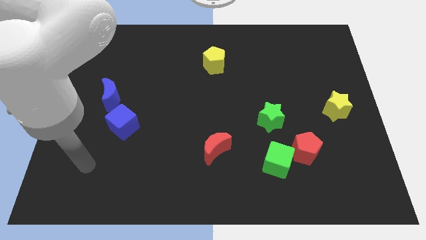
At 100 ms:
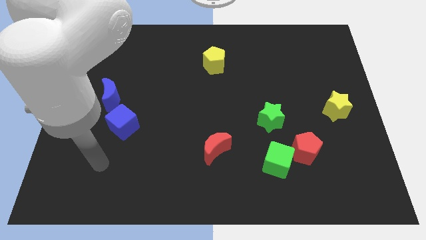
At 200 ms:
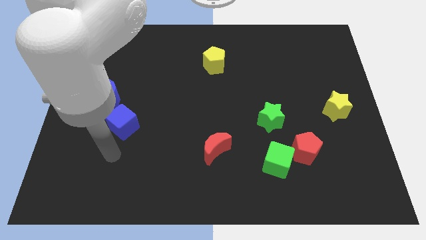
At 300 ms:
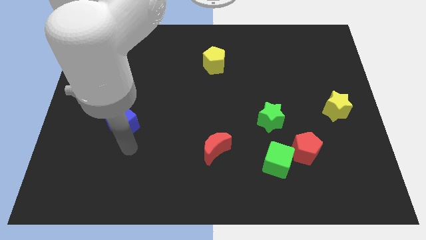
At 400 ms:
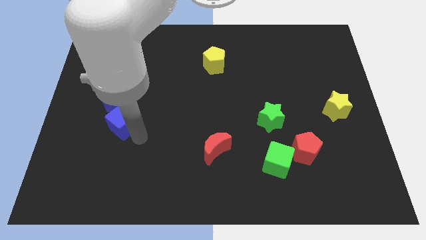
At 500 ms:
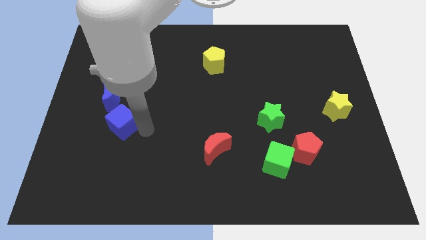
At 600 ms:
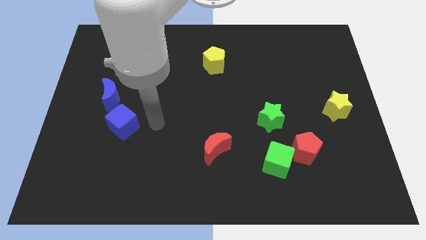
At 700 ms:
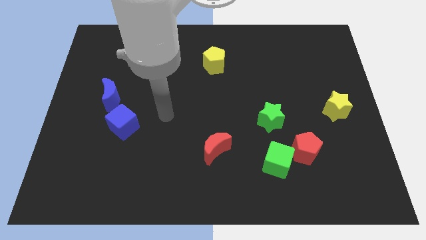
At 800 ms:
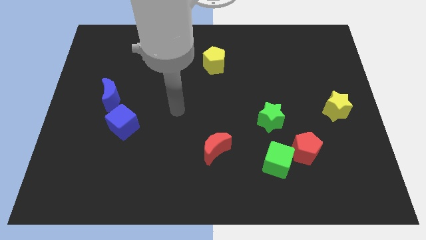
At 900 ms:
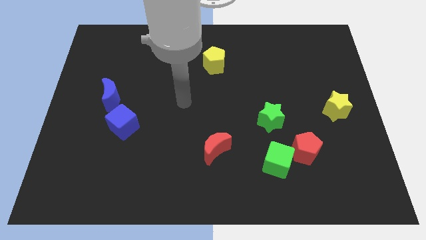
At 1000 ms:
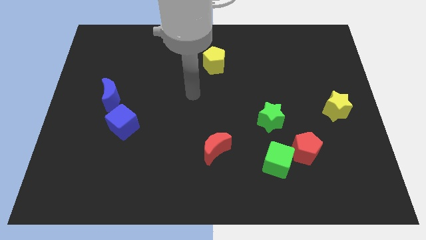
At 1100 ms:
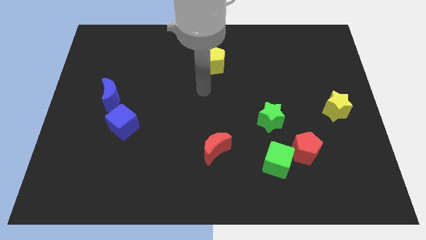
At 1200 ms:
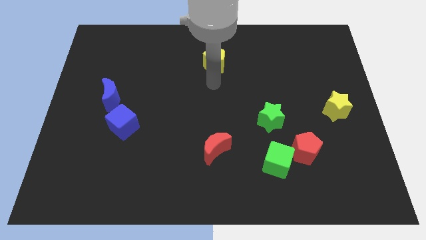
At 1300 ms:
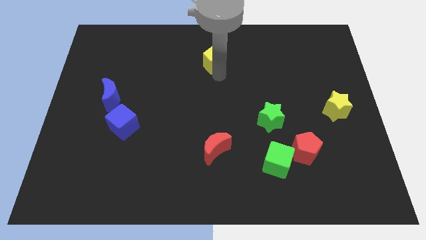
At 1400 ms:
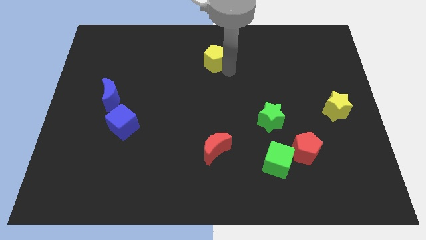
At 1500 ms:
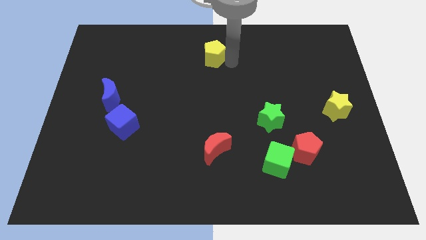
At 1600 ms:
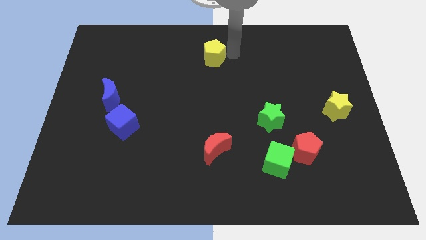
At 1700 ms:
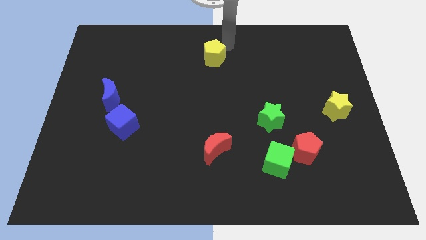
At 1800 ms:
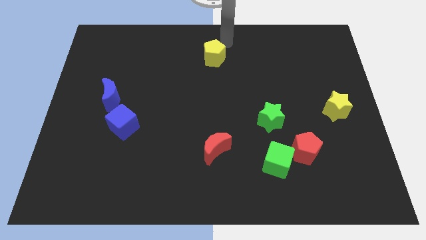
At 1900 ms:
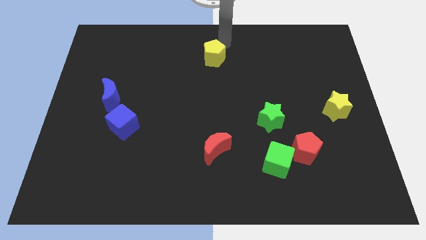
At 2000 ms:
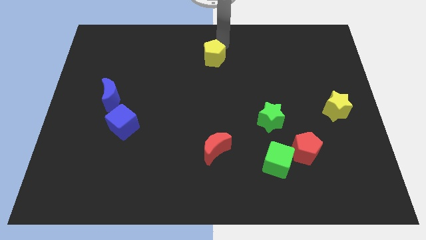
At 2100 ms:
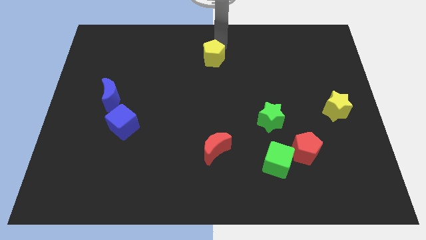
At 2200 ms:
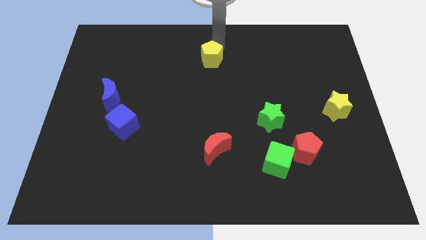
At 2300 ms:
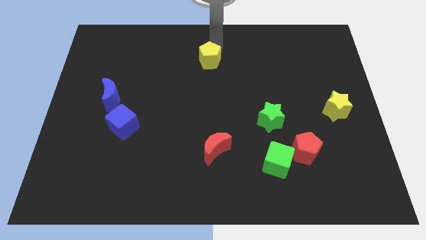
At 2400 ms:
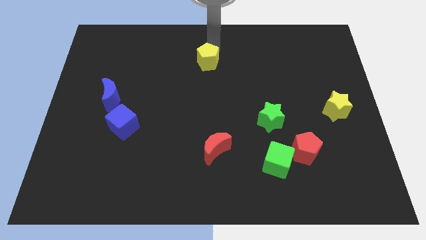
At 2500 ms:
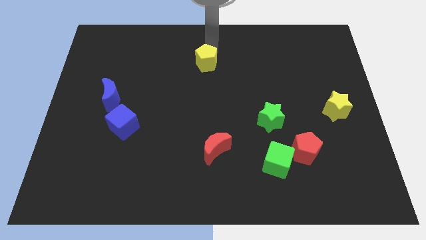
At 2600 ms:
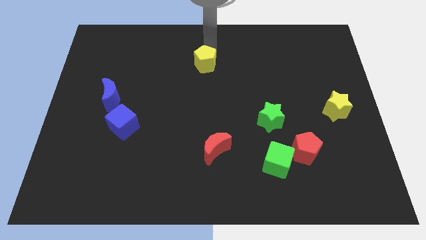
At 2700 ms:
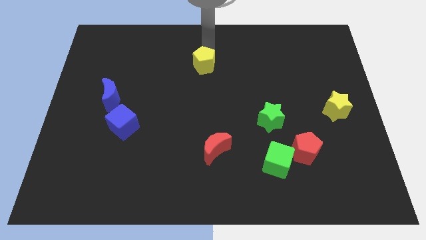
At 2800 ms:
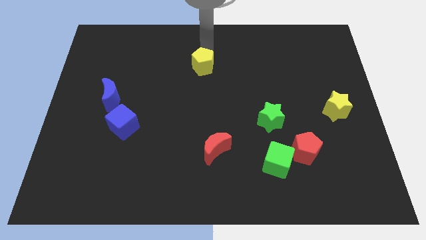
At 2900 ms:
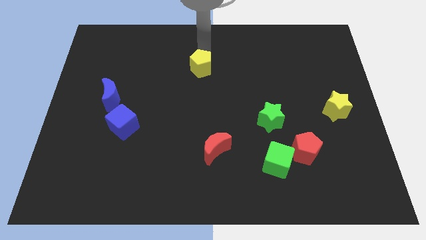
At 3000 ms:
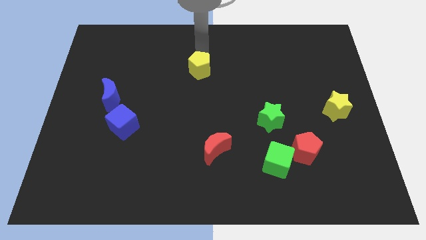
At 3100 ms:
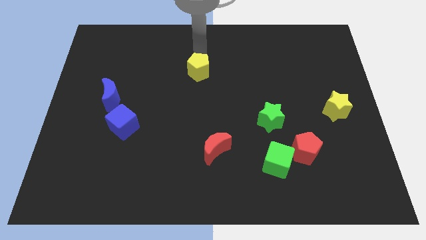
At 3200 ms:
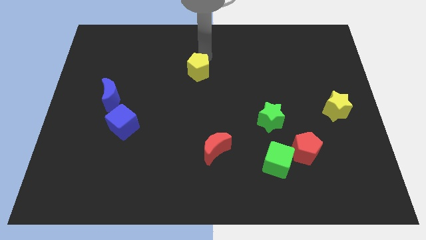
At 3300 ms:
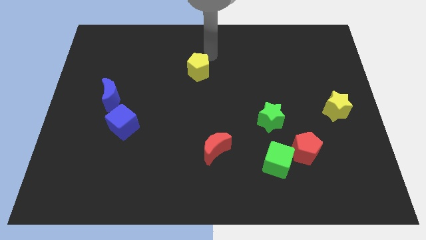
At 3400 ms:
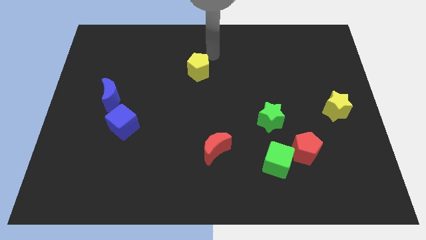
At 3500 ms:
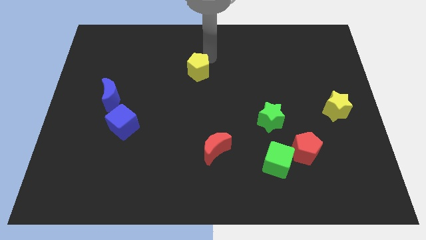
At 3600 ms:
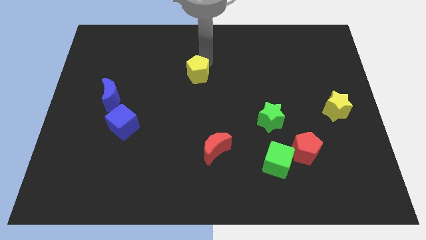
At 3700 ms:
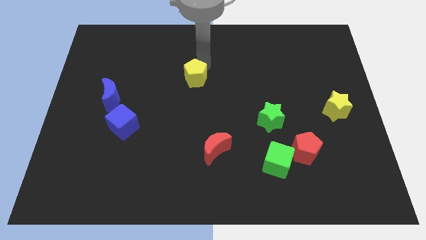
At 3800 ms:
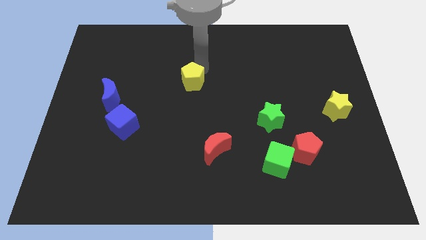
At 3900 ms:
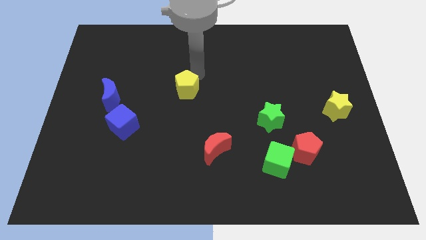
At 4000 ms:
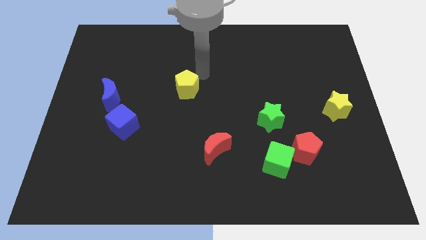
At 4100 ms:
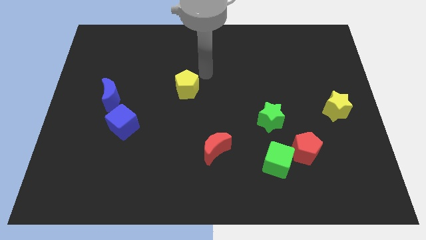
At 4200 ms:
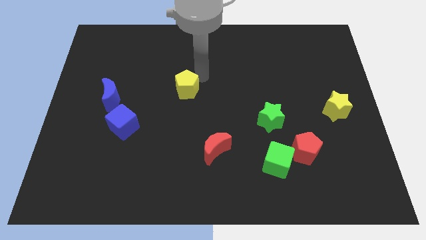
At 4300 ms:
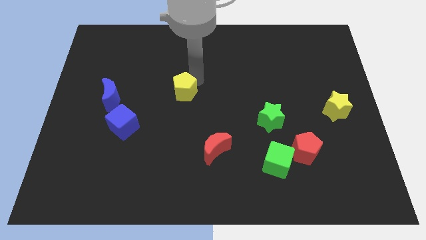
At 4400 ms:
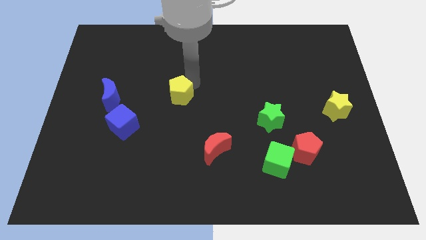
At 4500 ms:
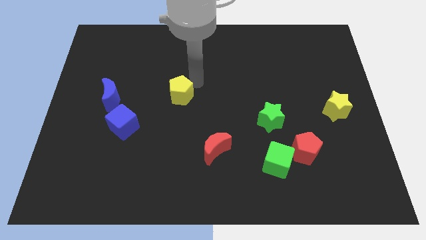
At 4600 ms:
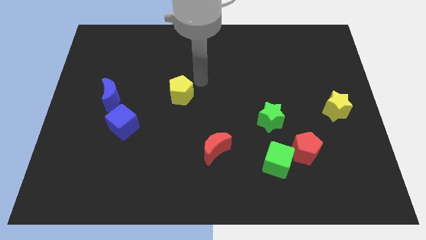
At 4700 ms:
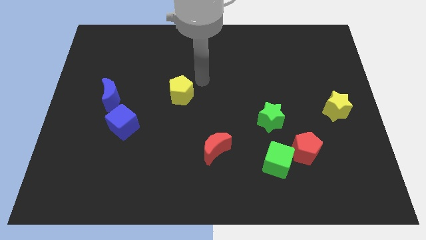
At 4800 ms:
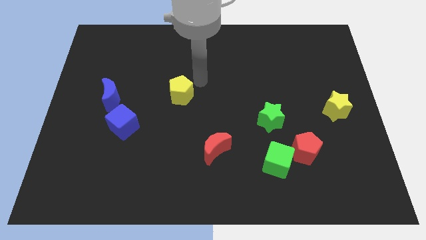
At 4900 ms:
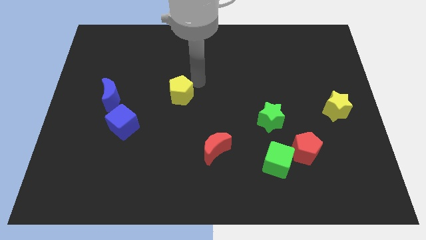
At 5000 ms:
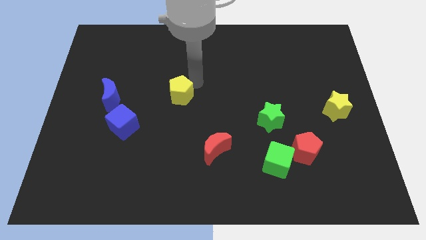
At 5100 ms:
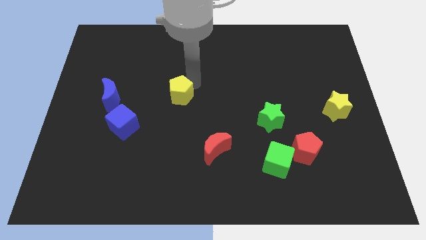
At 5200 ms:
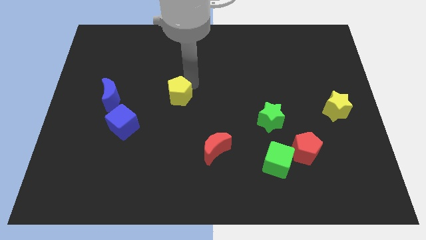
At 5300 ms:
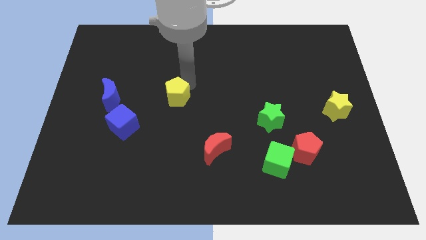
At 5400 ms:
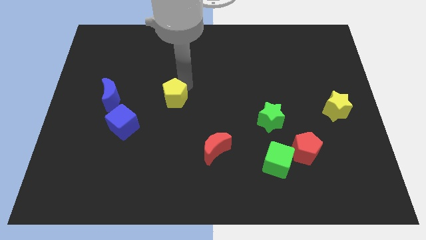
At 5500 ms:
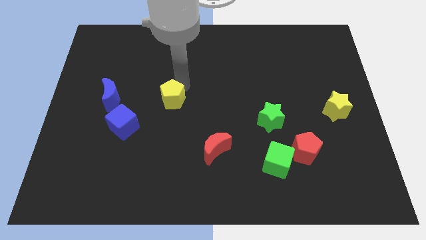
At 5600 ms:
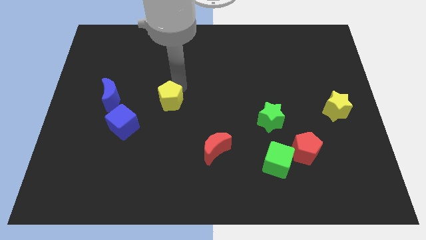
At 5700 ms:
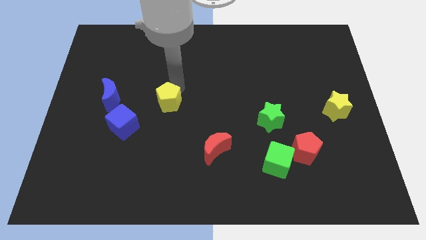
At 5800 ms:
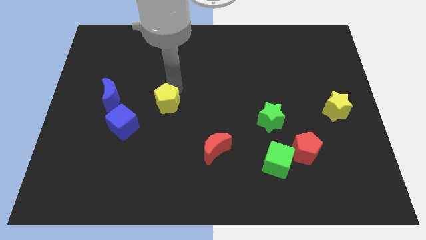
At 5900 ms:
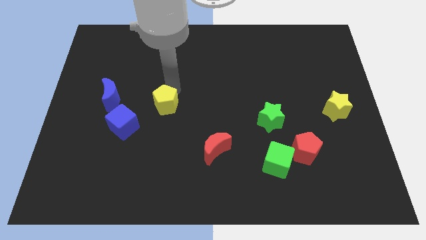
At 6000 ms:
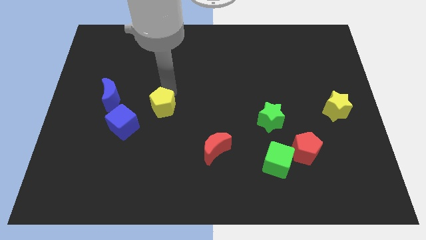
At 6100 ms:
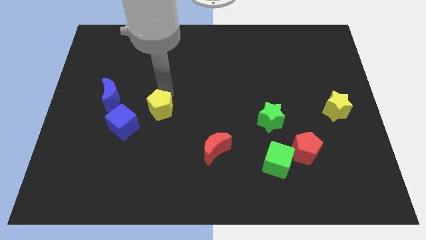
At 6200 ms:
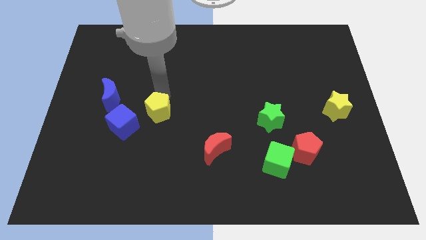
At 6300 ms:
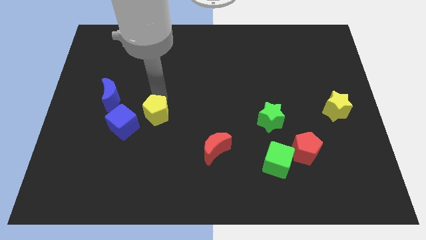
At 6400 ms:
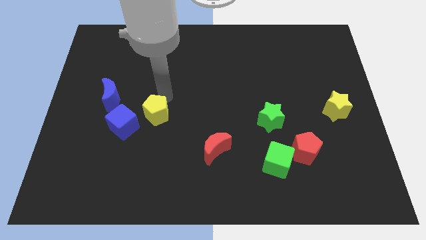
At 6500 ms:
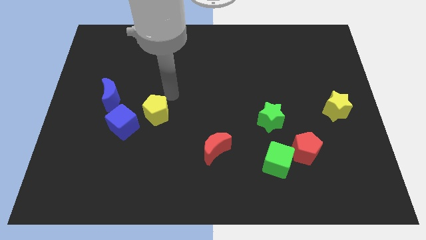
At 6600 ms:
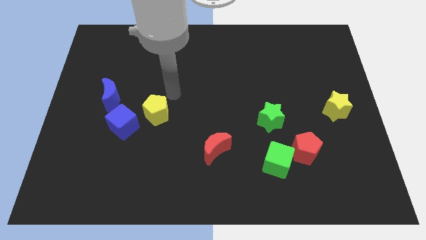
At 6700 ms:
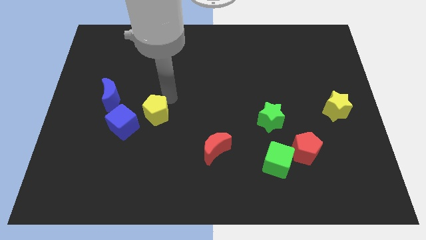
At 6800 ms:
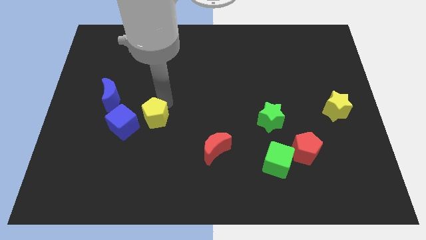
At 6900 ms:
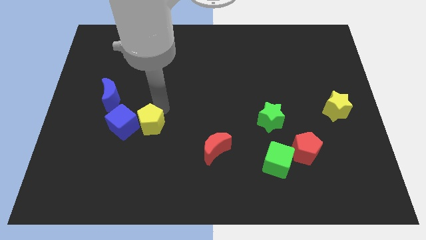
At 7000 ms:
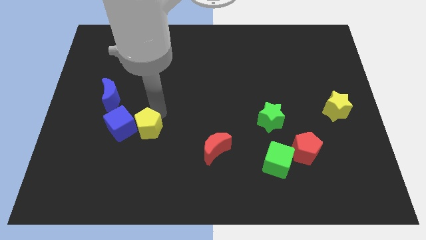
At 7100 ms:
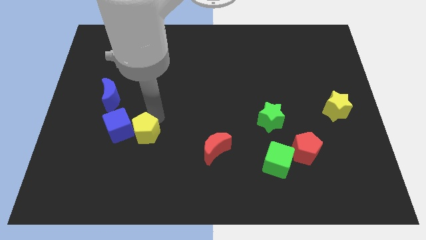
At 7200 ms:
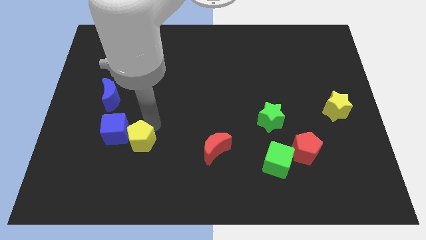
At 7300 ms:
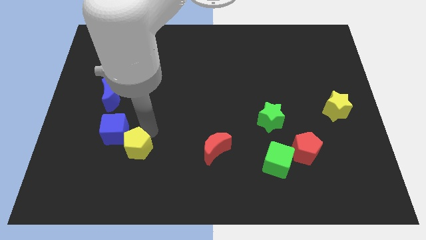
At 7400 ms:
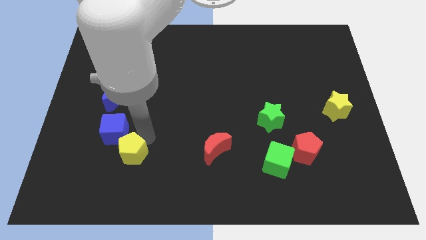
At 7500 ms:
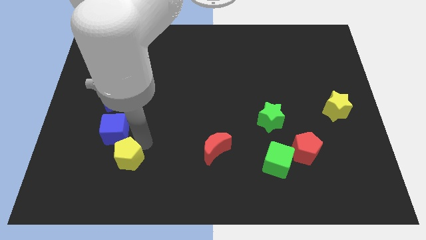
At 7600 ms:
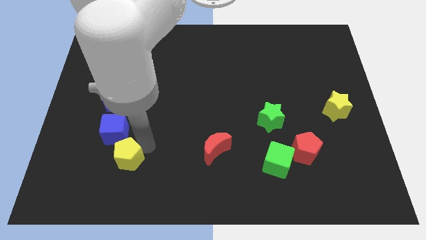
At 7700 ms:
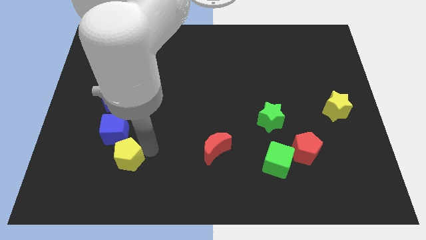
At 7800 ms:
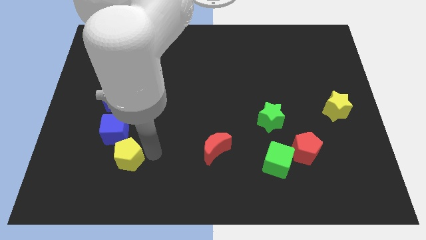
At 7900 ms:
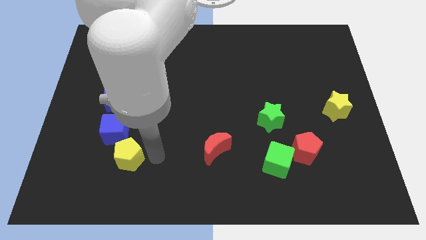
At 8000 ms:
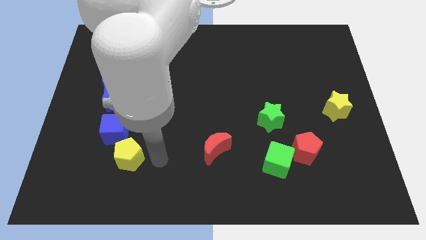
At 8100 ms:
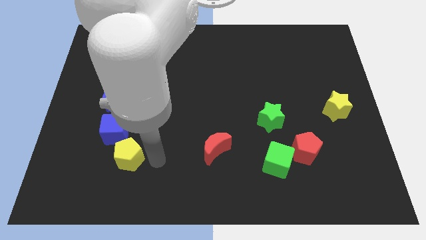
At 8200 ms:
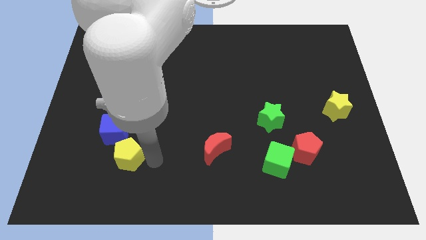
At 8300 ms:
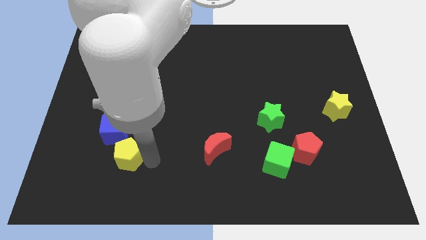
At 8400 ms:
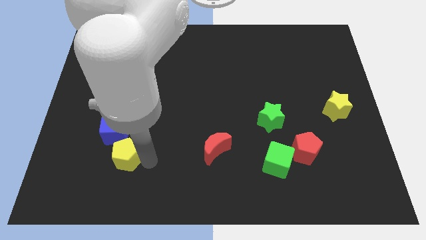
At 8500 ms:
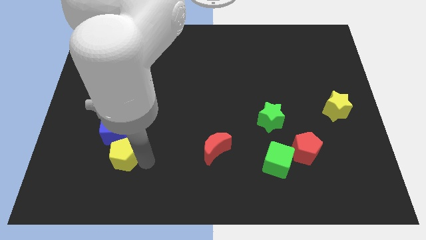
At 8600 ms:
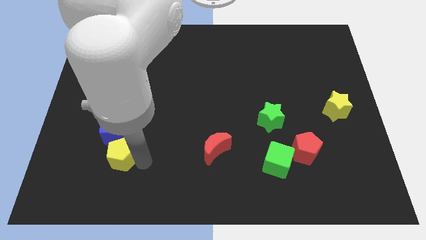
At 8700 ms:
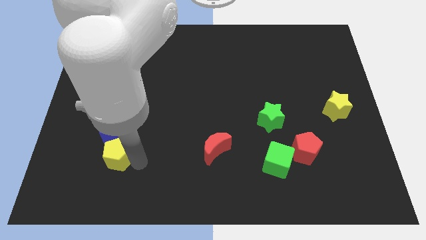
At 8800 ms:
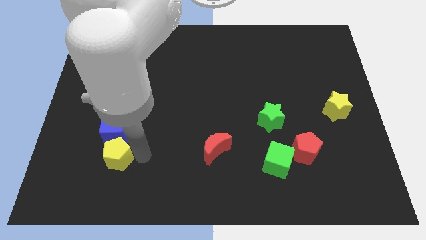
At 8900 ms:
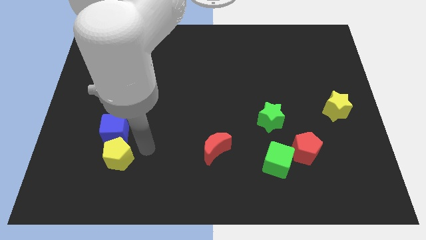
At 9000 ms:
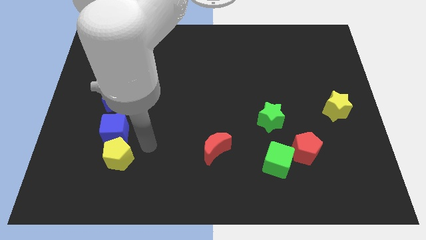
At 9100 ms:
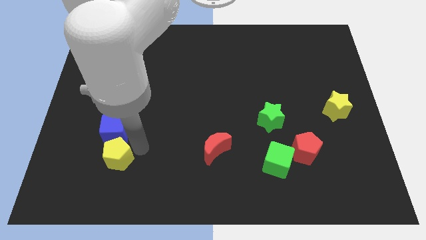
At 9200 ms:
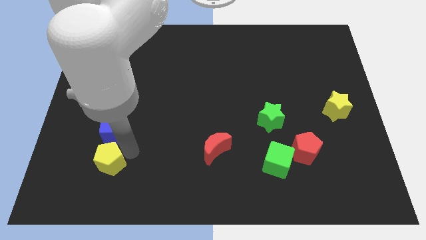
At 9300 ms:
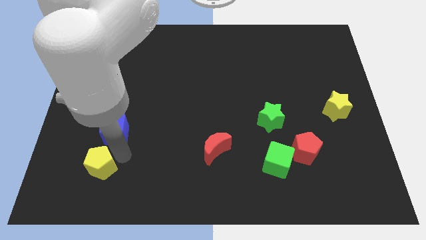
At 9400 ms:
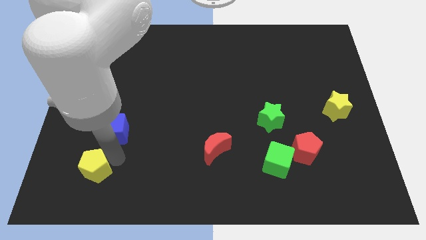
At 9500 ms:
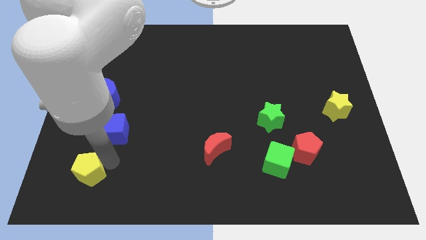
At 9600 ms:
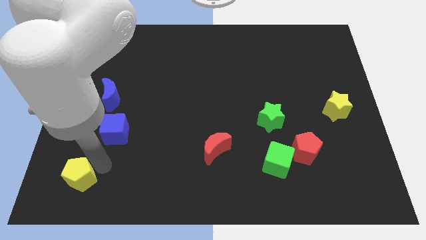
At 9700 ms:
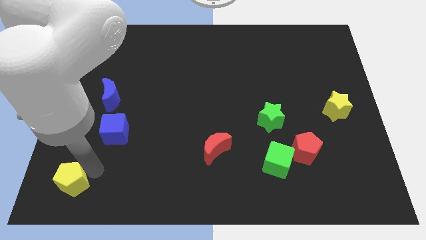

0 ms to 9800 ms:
put the yellow pentagon to the bottom left corner
